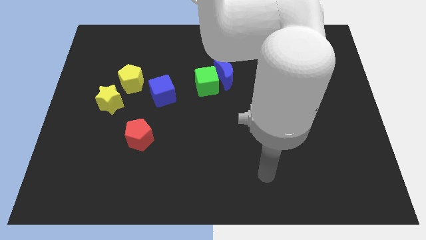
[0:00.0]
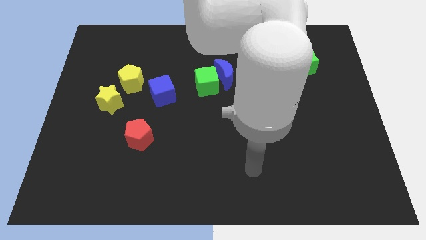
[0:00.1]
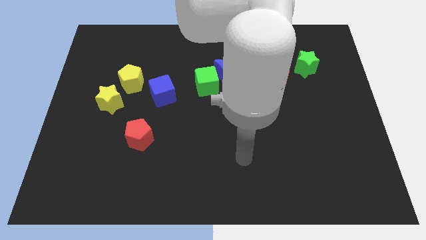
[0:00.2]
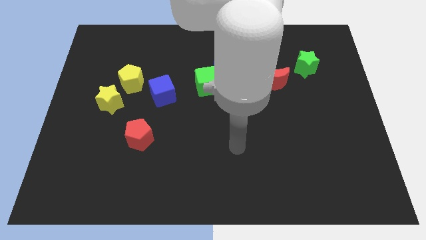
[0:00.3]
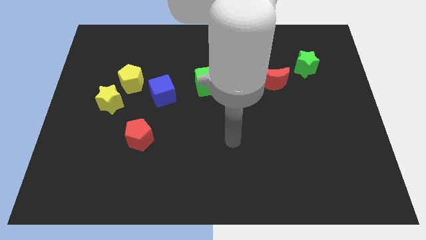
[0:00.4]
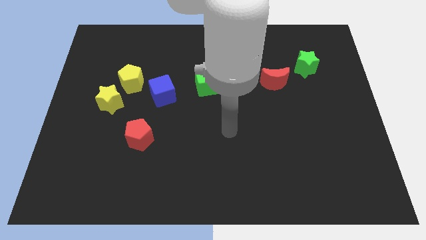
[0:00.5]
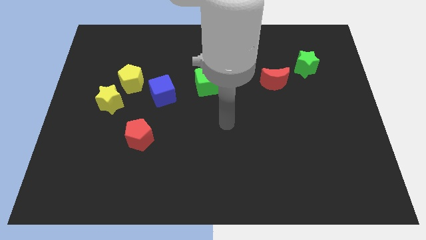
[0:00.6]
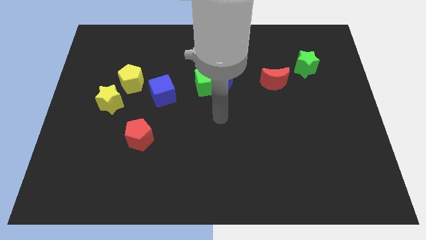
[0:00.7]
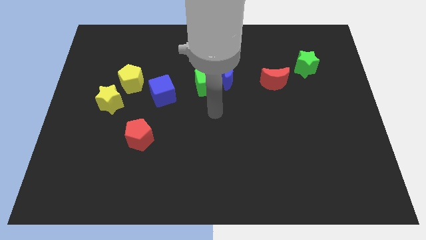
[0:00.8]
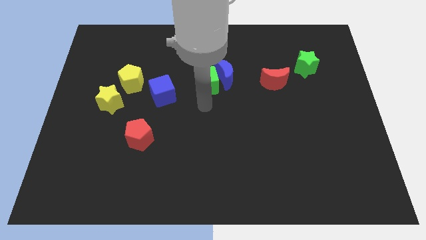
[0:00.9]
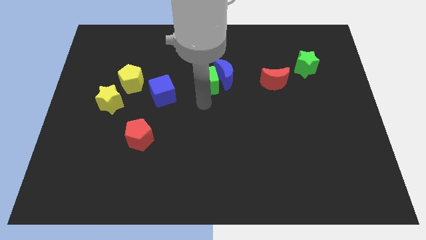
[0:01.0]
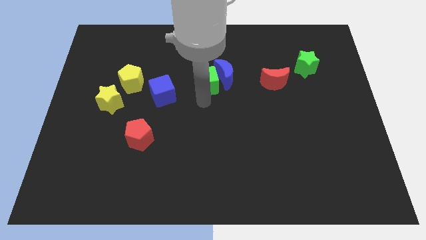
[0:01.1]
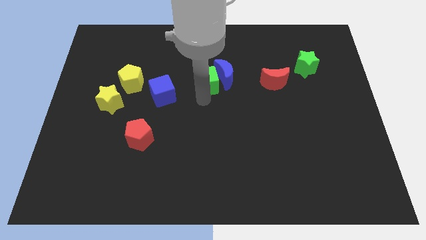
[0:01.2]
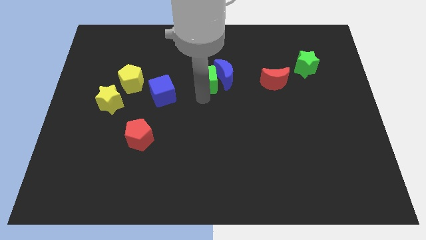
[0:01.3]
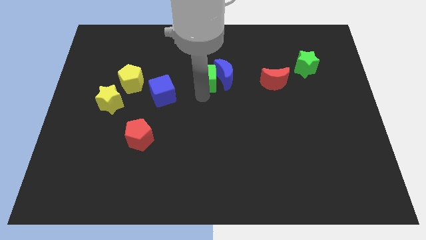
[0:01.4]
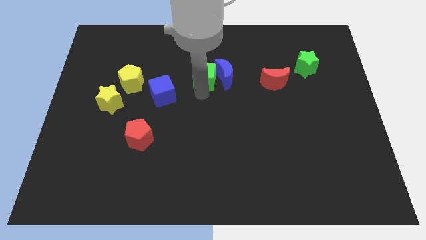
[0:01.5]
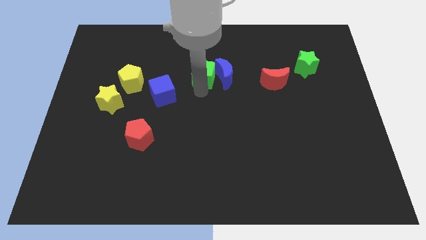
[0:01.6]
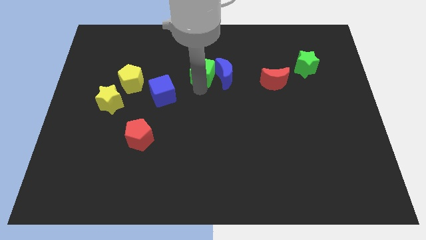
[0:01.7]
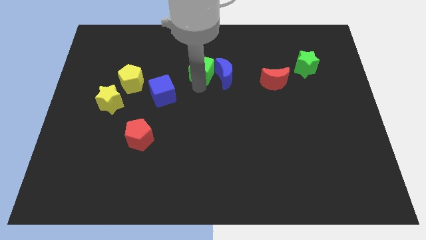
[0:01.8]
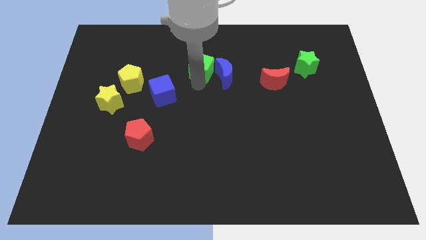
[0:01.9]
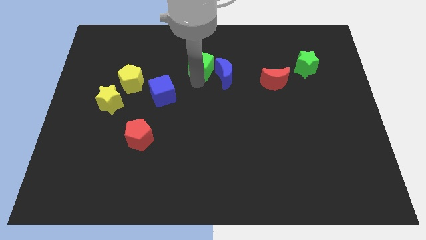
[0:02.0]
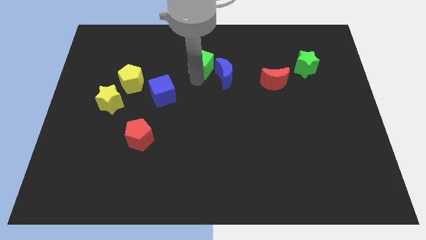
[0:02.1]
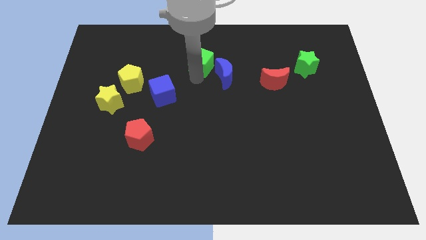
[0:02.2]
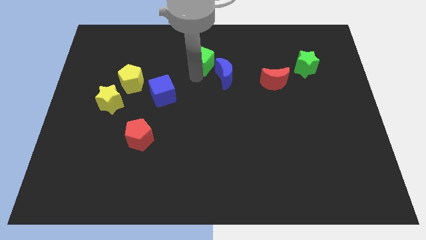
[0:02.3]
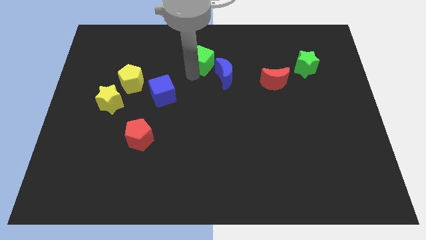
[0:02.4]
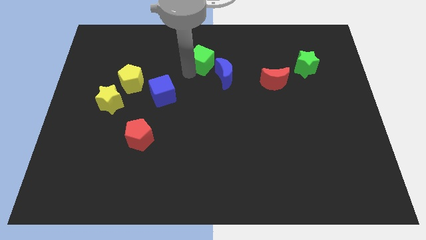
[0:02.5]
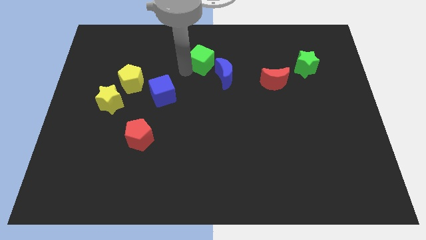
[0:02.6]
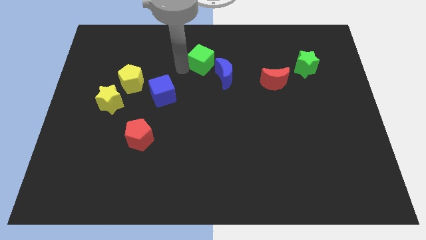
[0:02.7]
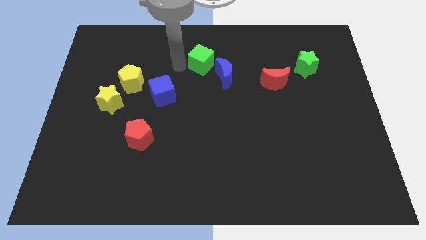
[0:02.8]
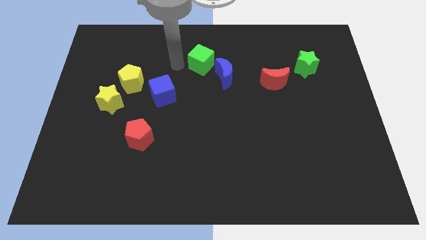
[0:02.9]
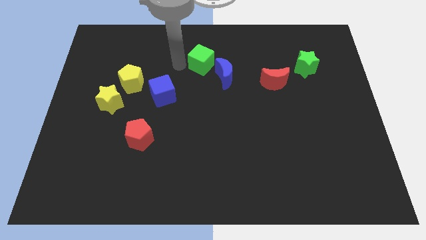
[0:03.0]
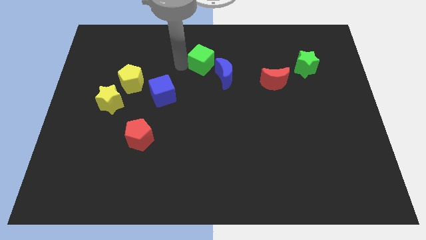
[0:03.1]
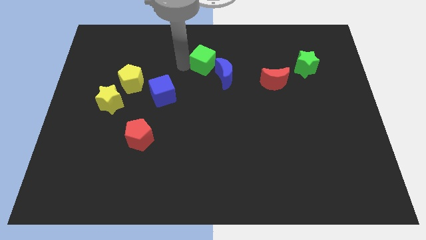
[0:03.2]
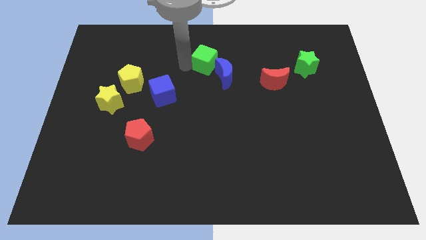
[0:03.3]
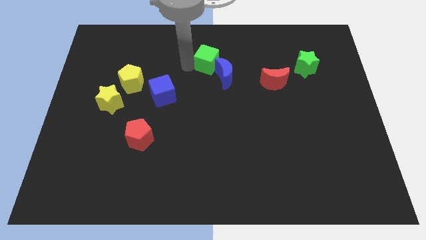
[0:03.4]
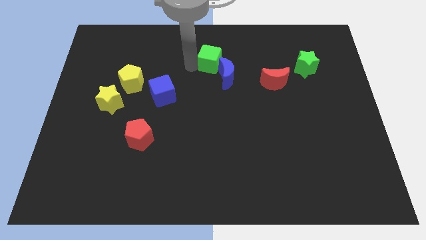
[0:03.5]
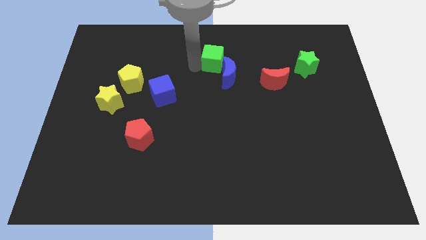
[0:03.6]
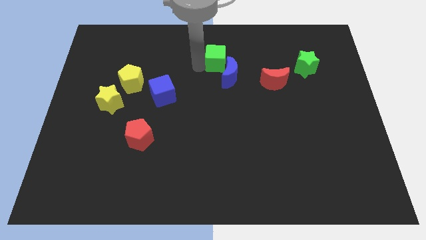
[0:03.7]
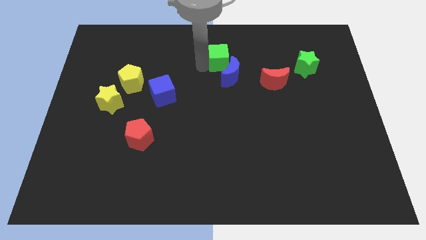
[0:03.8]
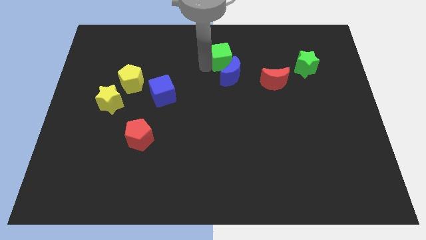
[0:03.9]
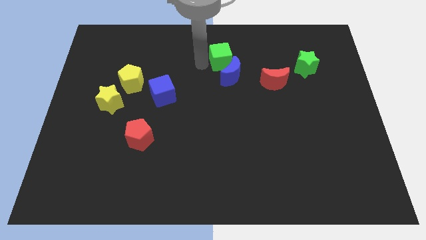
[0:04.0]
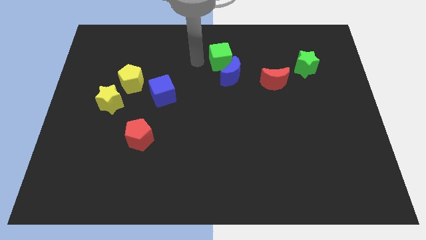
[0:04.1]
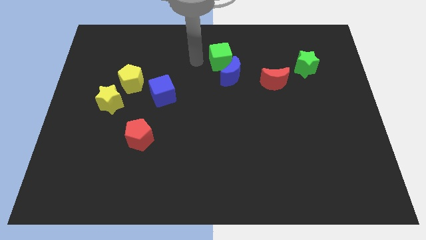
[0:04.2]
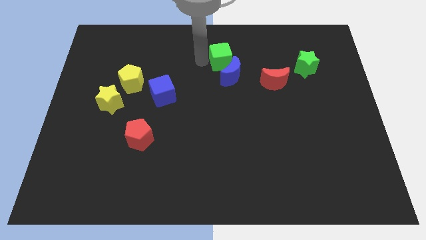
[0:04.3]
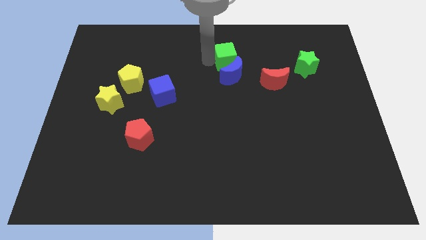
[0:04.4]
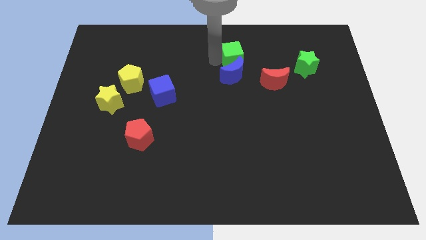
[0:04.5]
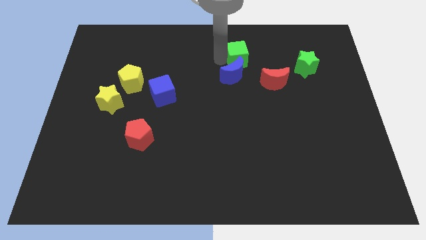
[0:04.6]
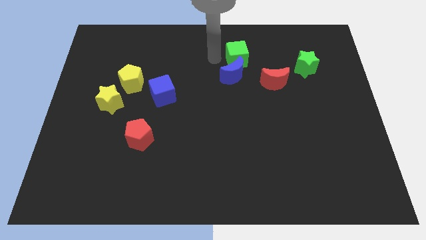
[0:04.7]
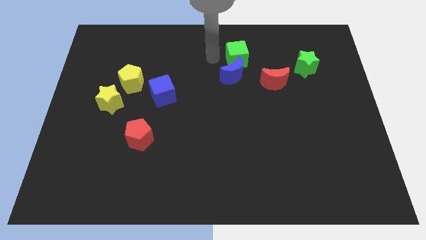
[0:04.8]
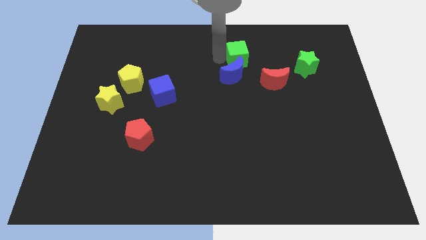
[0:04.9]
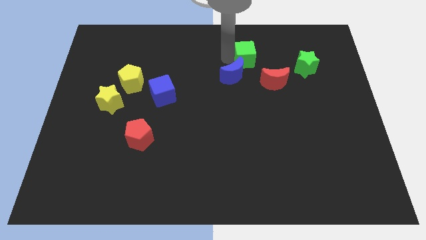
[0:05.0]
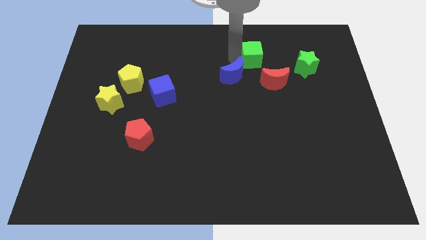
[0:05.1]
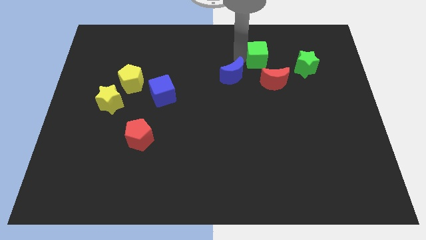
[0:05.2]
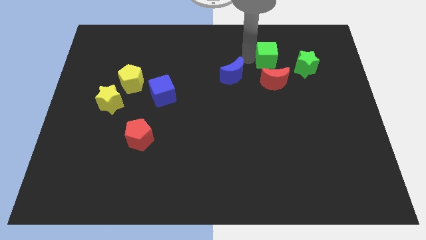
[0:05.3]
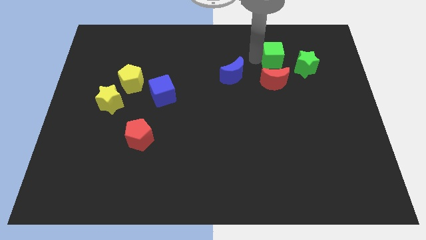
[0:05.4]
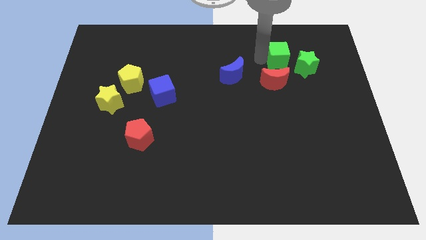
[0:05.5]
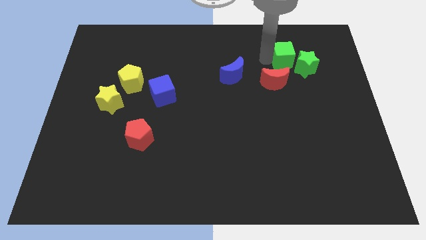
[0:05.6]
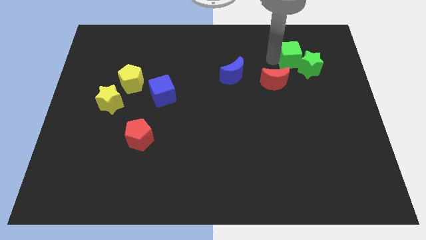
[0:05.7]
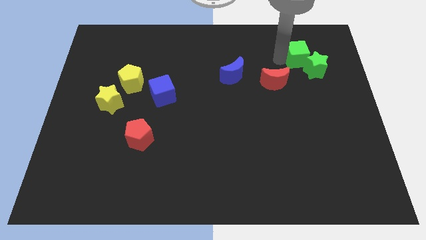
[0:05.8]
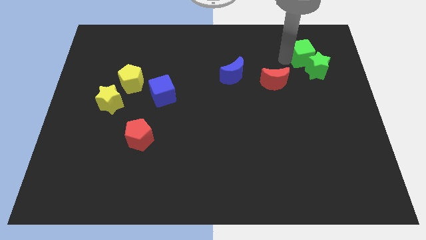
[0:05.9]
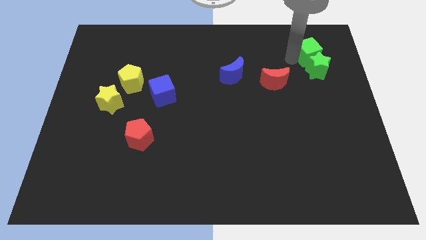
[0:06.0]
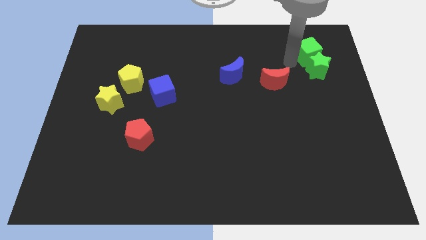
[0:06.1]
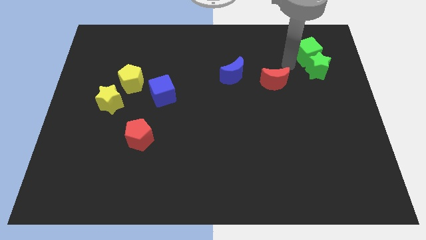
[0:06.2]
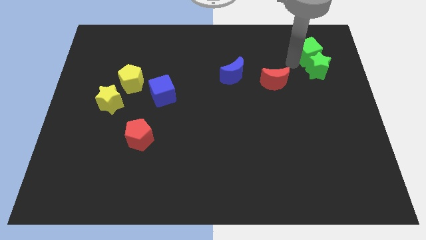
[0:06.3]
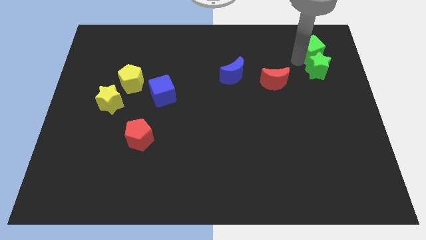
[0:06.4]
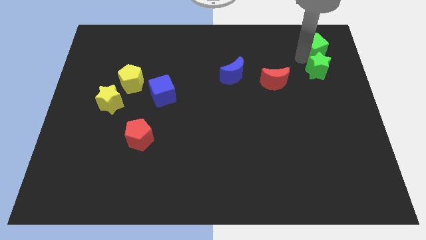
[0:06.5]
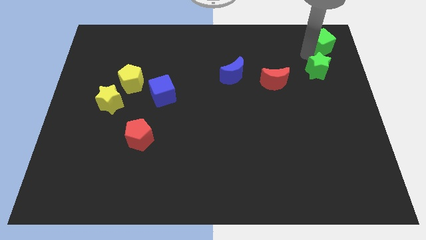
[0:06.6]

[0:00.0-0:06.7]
slide the green cube to the upper right corner

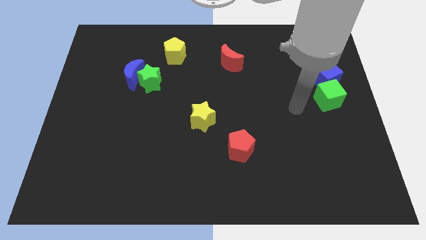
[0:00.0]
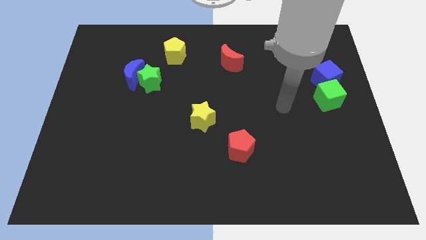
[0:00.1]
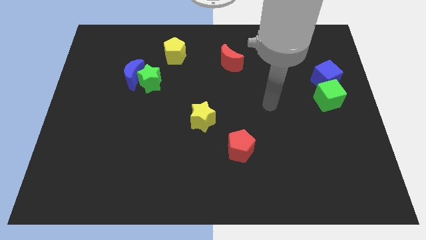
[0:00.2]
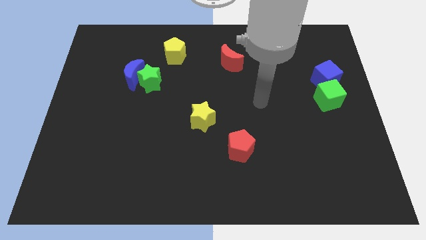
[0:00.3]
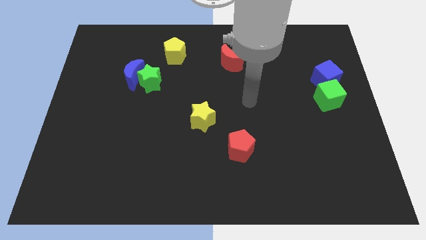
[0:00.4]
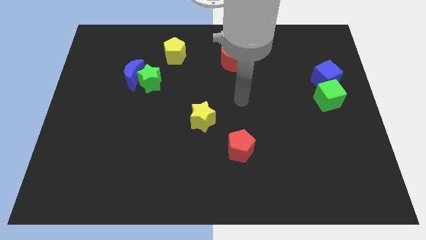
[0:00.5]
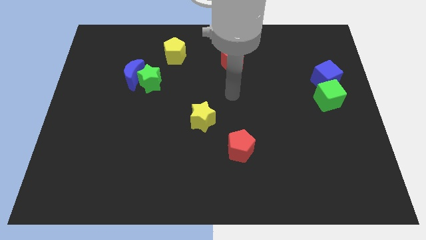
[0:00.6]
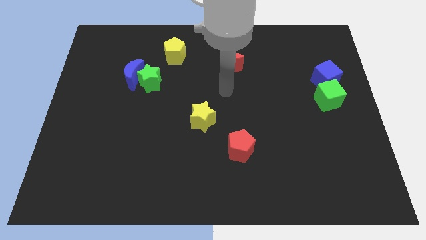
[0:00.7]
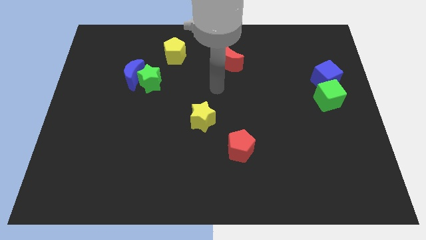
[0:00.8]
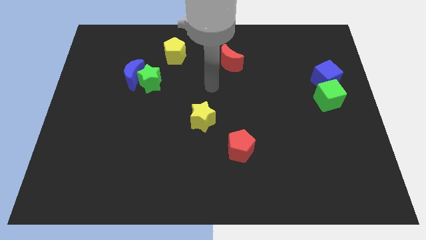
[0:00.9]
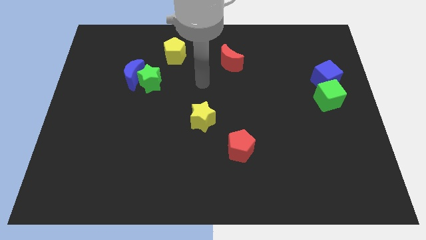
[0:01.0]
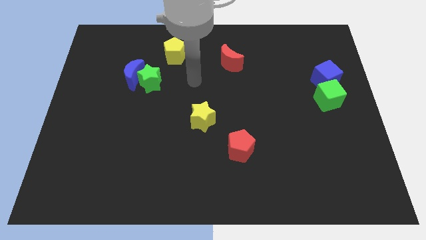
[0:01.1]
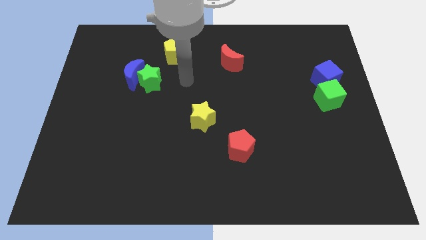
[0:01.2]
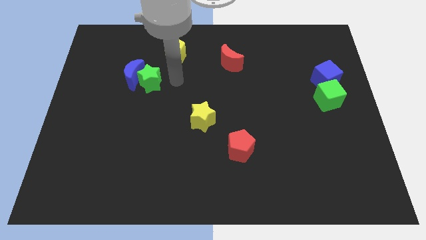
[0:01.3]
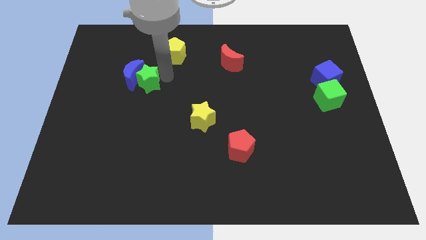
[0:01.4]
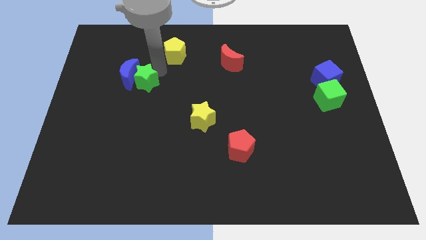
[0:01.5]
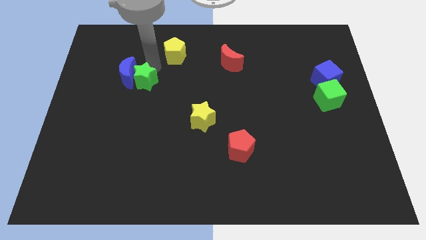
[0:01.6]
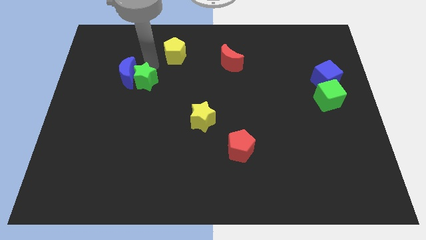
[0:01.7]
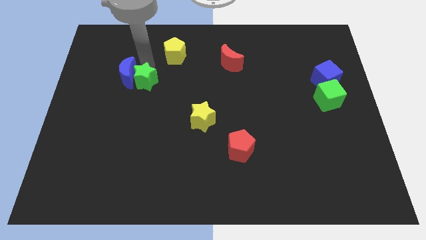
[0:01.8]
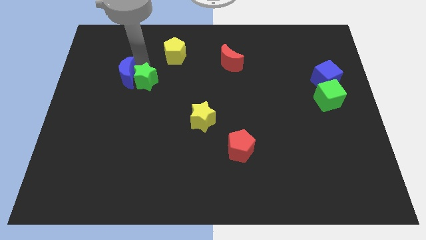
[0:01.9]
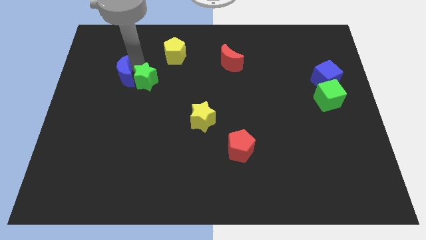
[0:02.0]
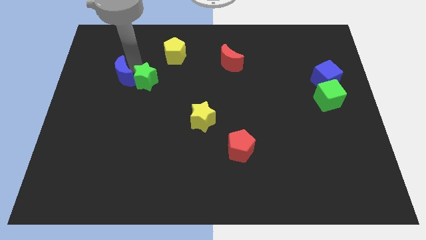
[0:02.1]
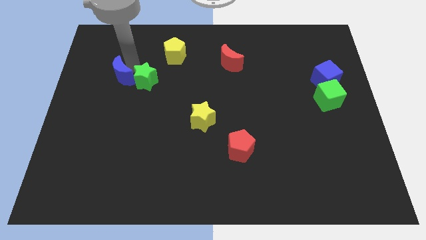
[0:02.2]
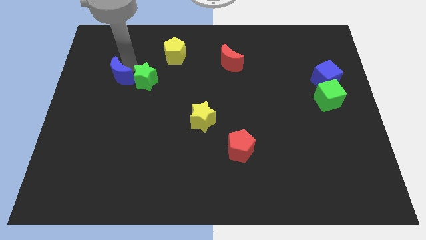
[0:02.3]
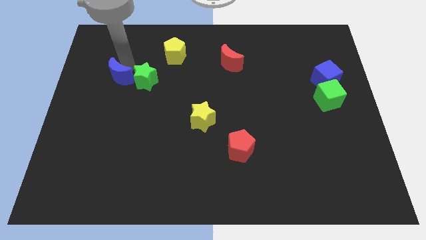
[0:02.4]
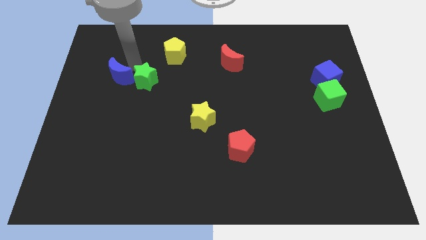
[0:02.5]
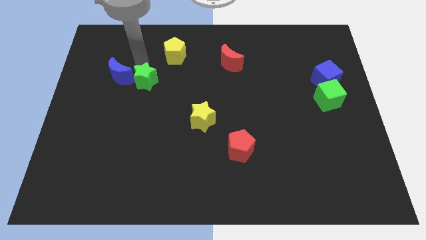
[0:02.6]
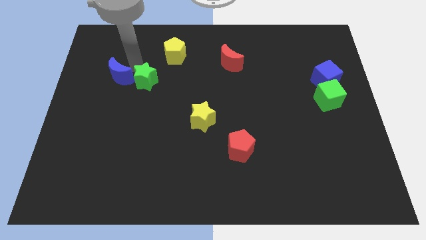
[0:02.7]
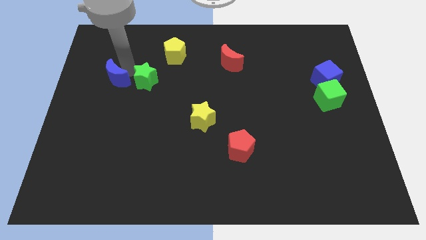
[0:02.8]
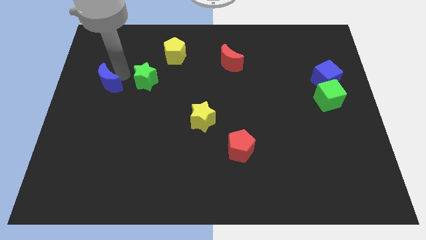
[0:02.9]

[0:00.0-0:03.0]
move the blue moon to the center left
